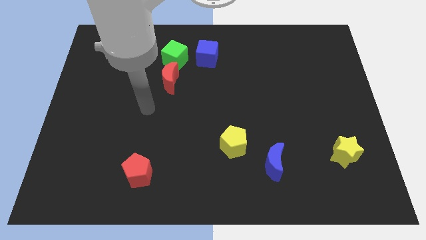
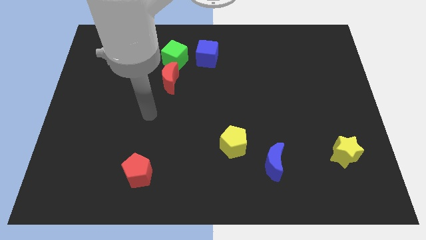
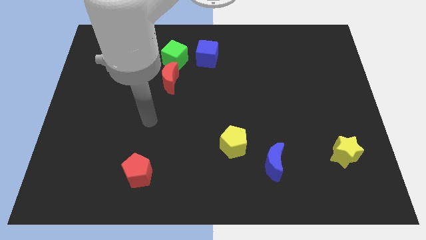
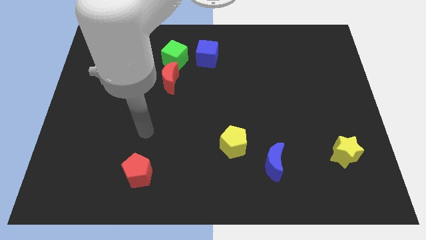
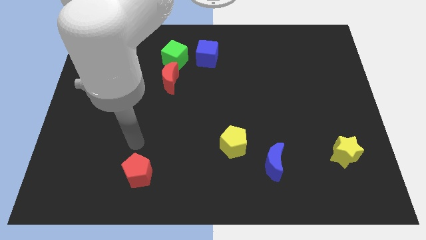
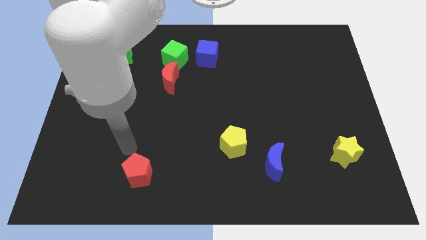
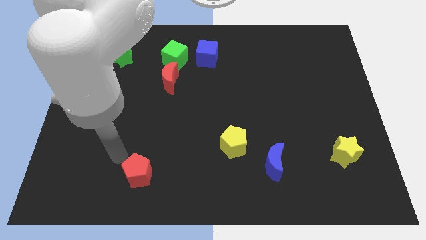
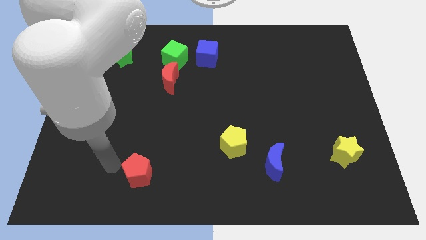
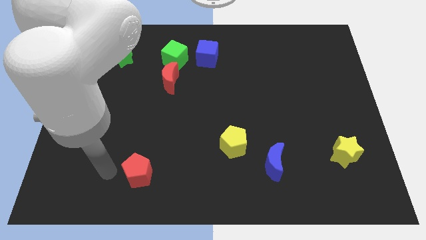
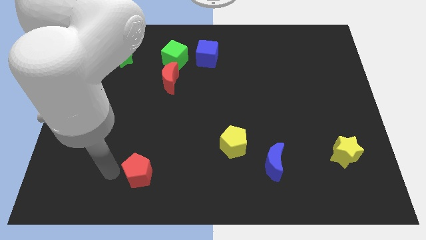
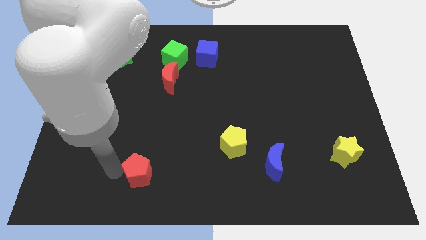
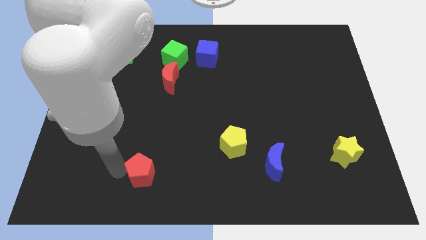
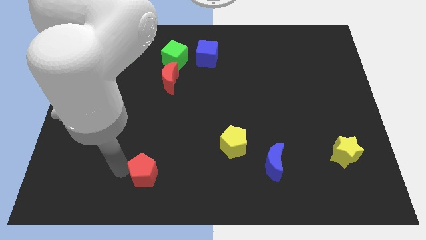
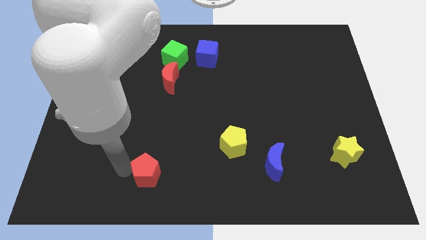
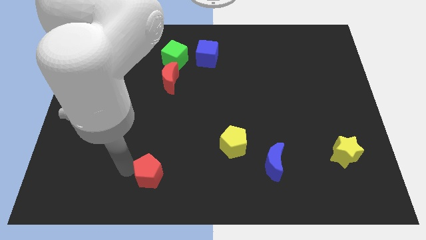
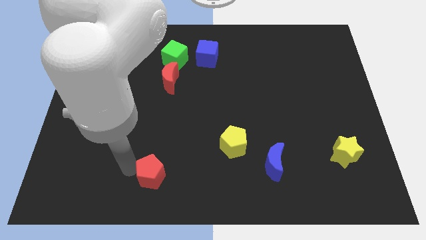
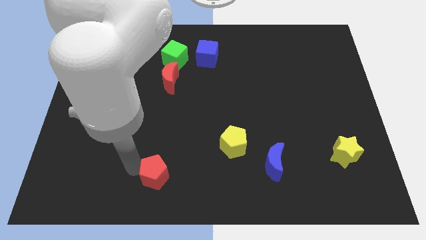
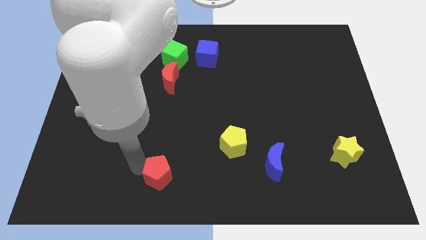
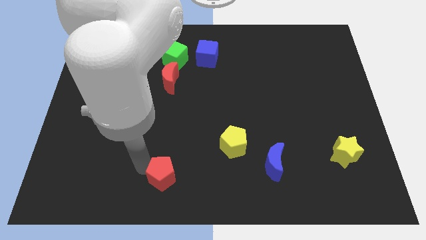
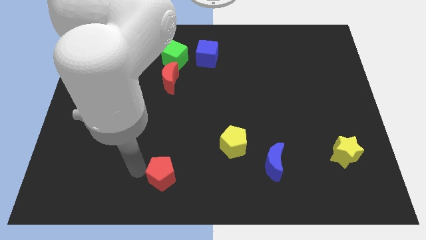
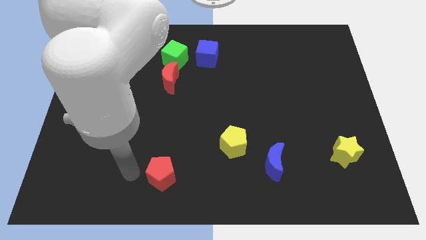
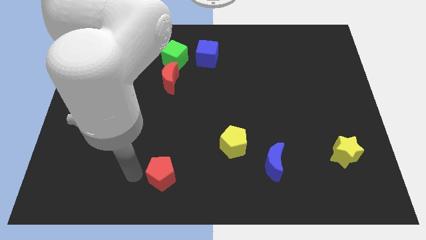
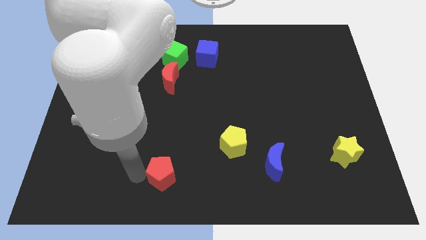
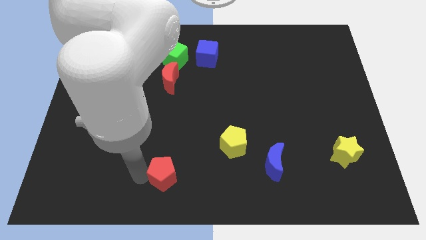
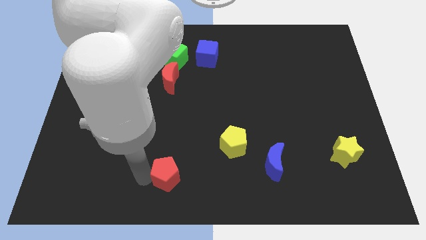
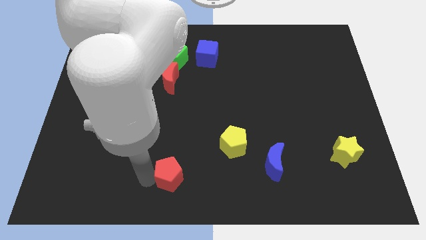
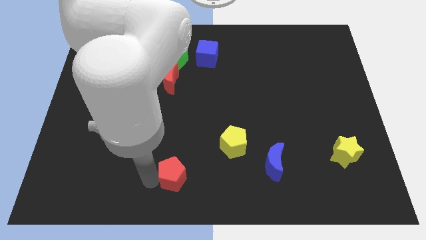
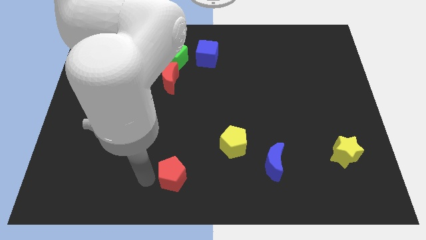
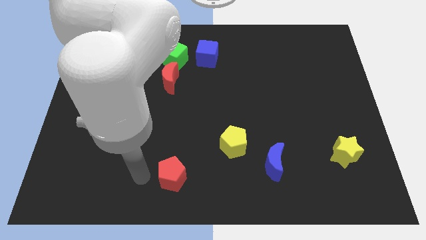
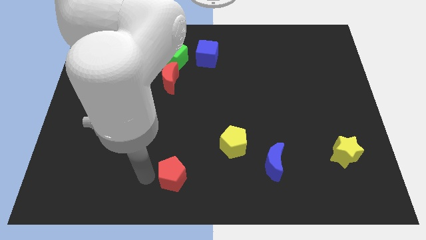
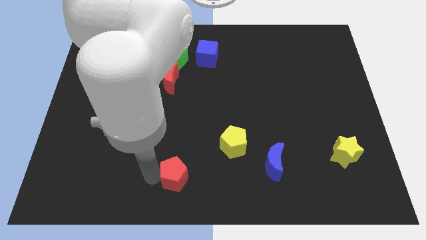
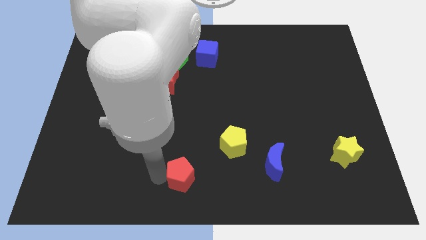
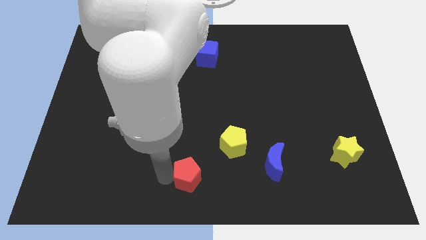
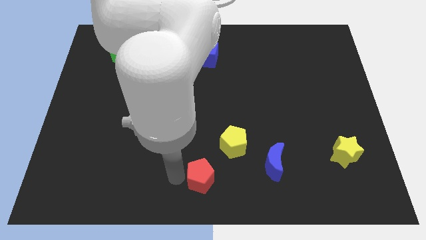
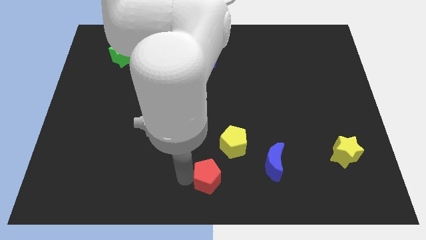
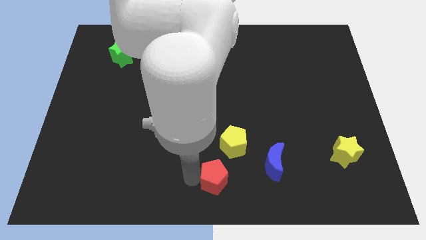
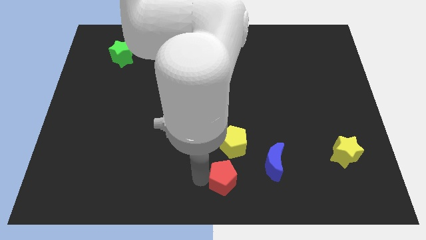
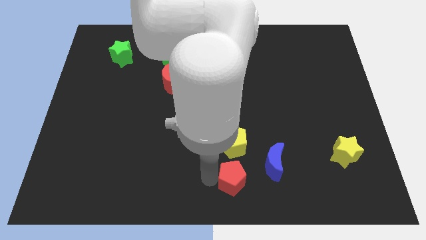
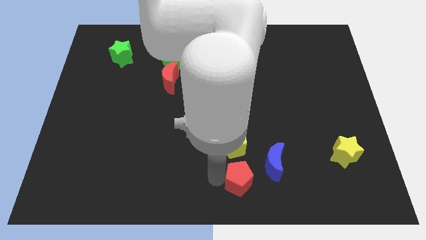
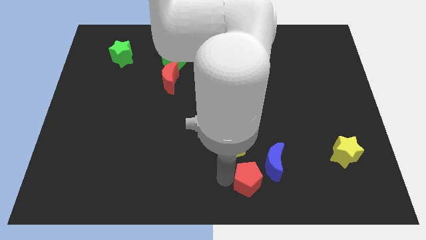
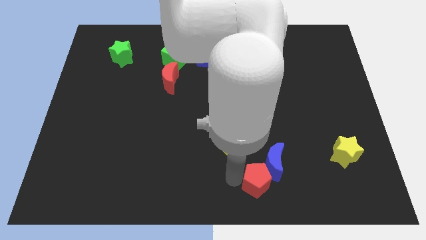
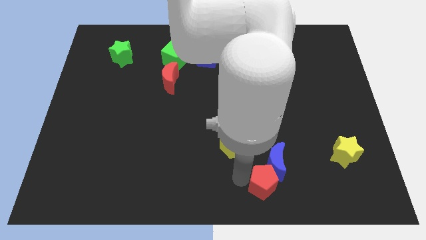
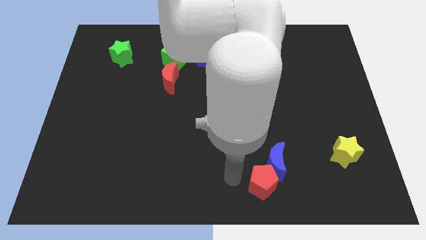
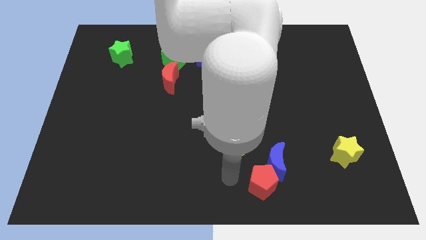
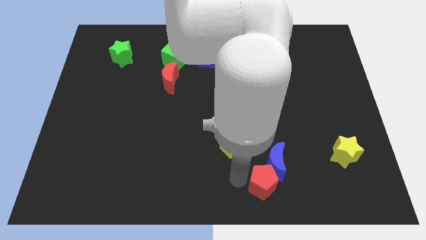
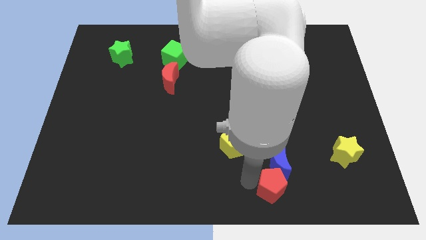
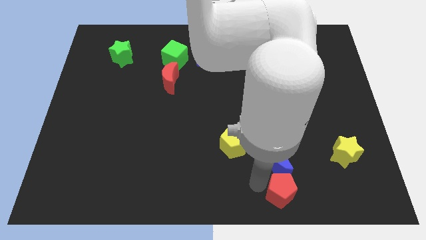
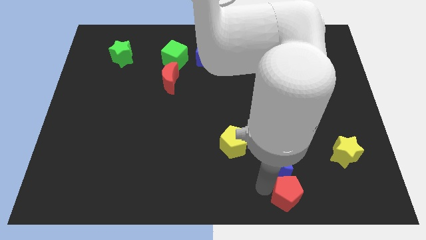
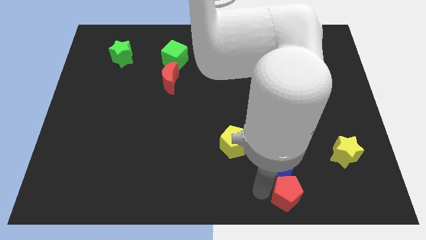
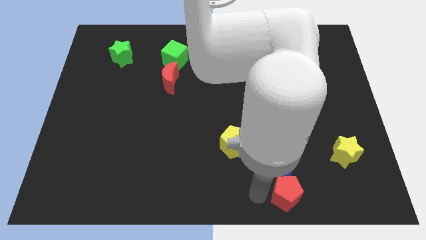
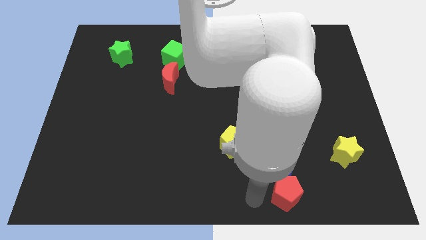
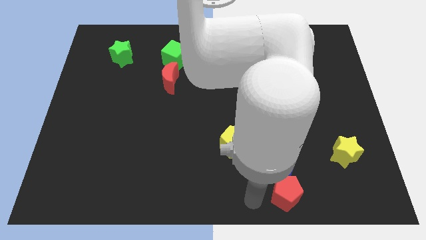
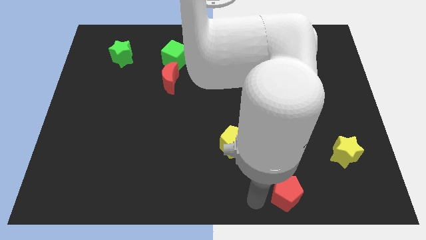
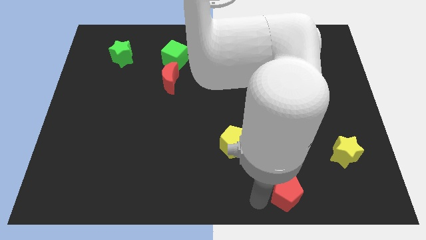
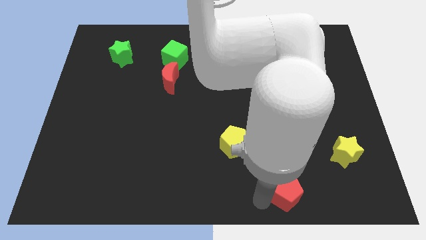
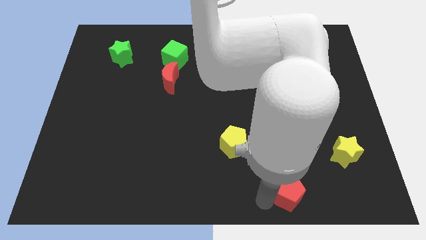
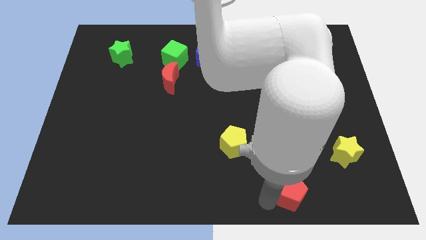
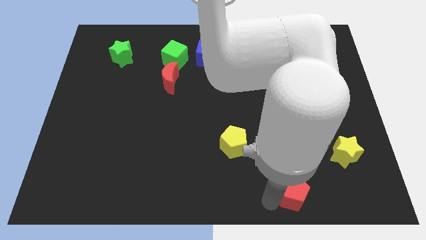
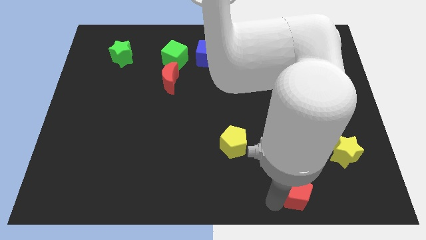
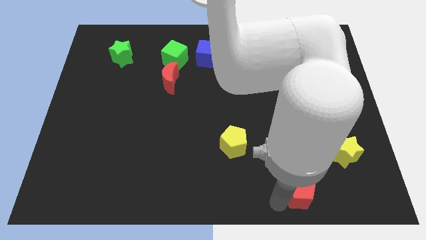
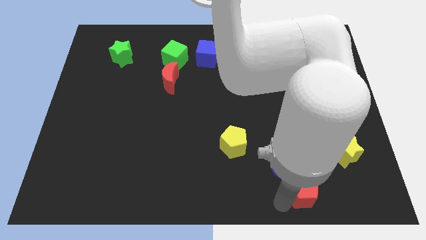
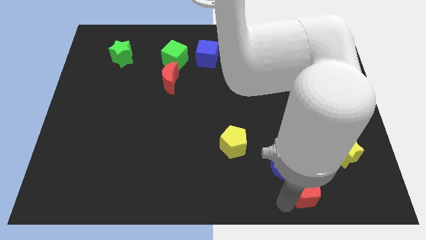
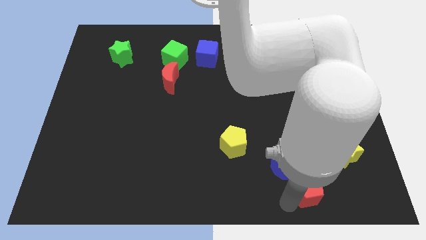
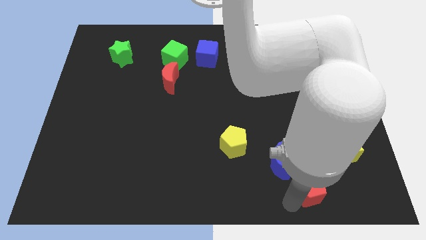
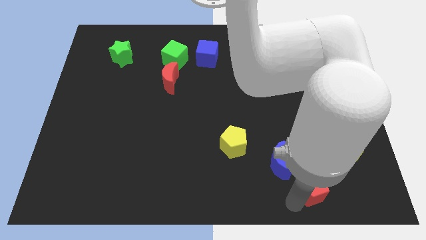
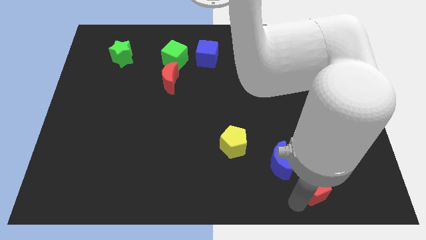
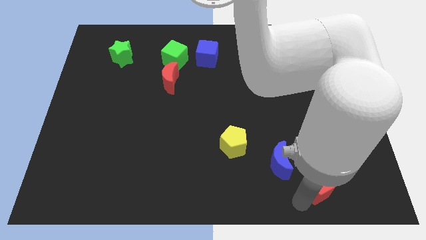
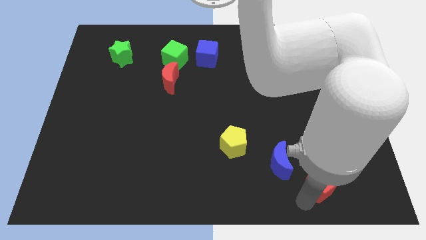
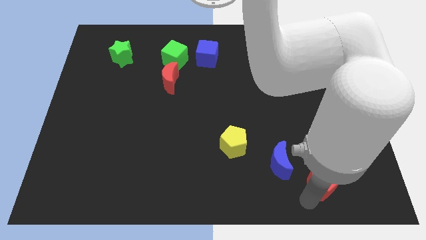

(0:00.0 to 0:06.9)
put the red pentagon to the right of the blue moon

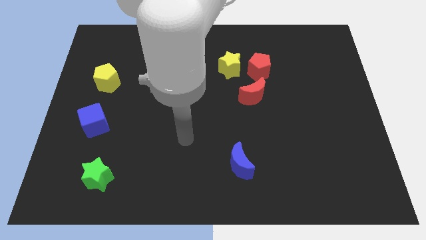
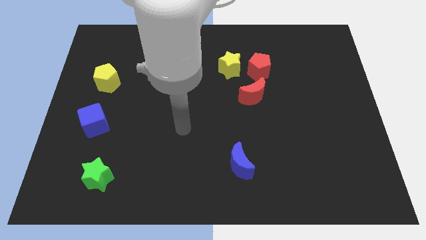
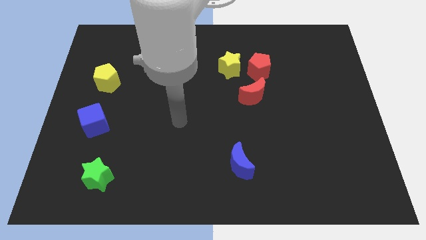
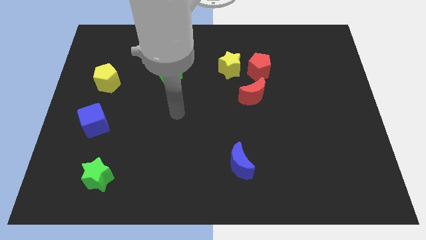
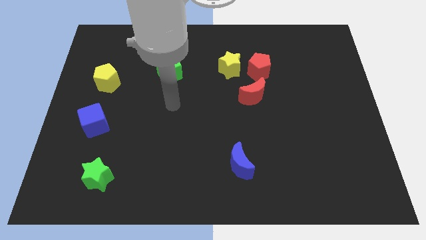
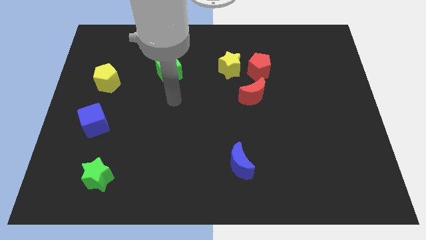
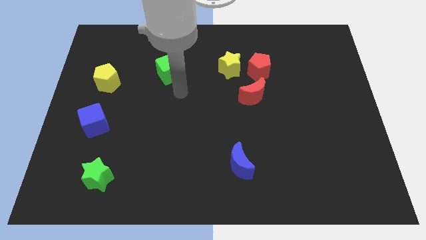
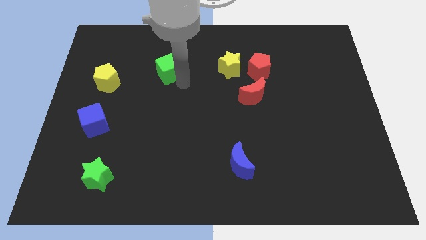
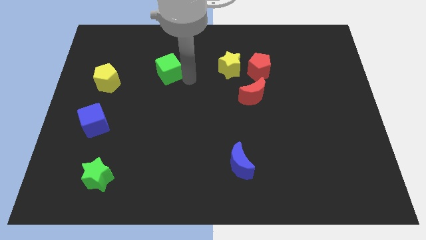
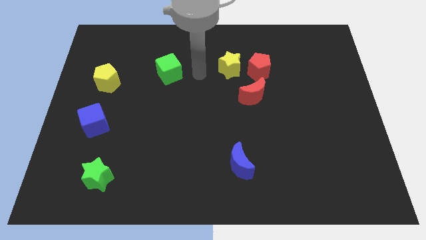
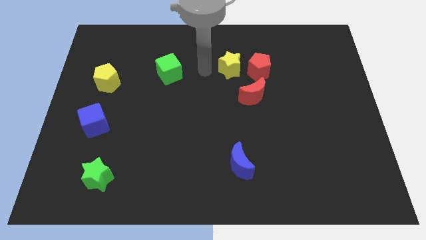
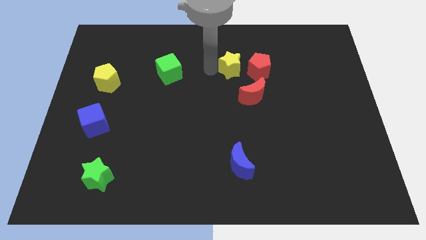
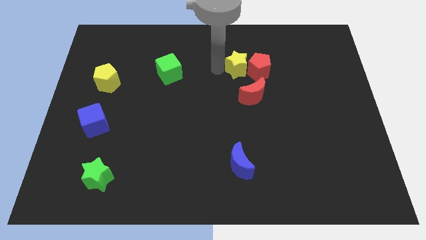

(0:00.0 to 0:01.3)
slide the yellow star to the top side of the red moon
